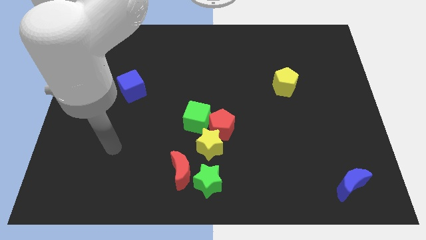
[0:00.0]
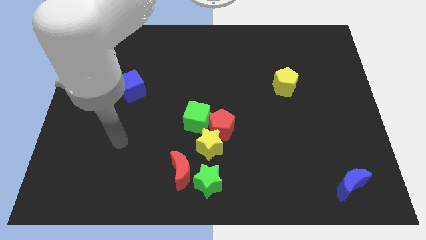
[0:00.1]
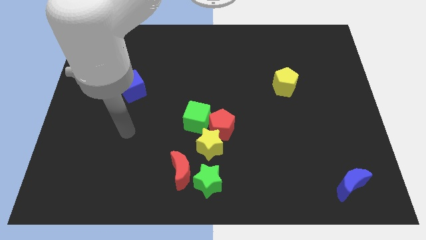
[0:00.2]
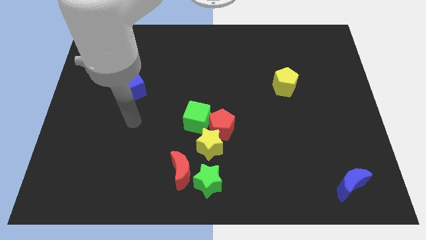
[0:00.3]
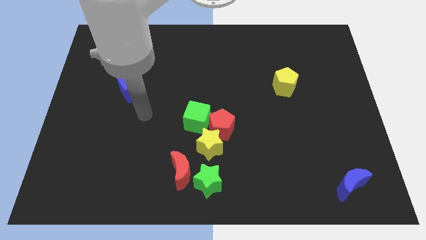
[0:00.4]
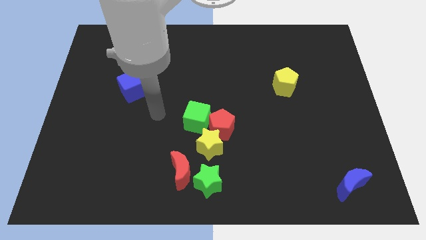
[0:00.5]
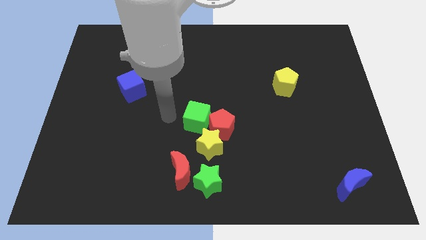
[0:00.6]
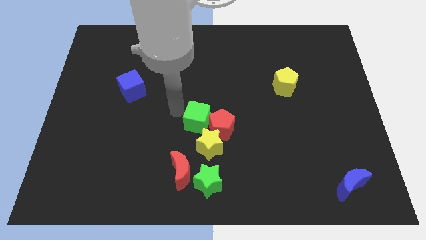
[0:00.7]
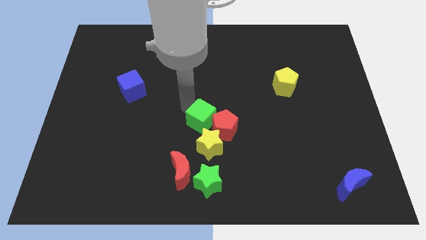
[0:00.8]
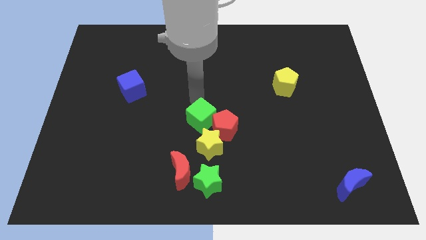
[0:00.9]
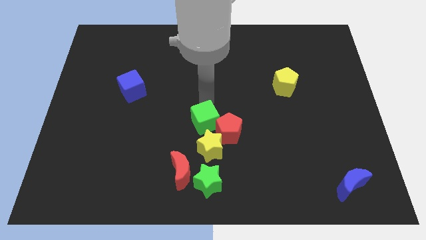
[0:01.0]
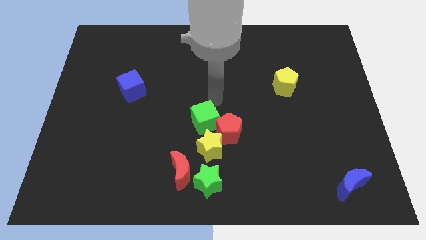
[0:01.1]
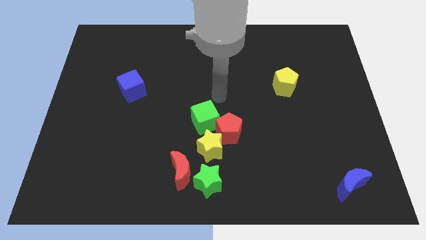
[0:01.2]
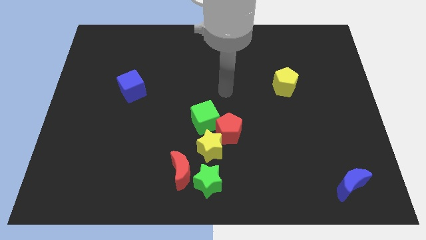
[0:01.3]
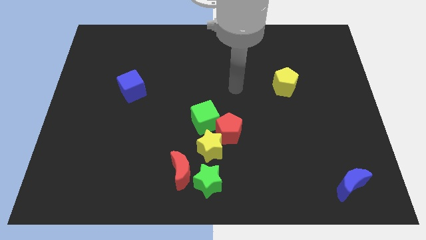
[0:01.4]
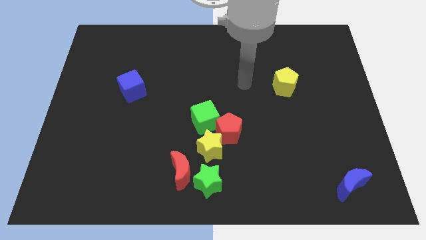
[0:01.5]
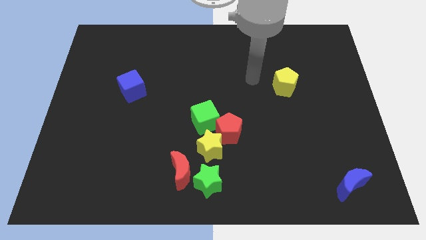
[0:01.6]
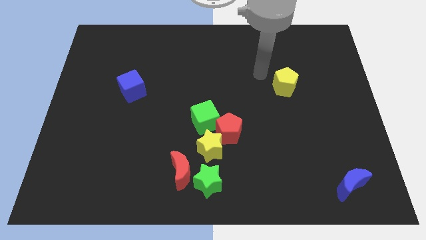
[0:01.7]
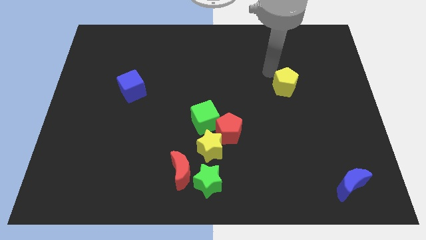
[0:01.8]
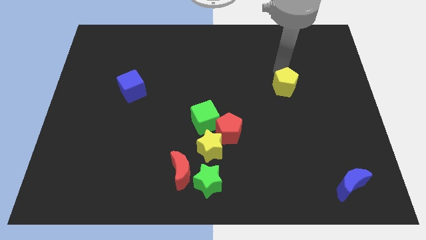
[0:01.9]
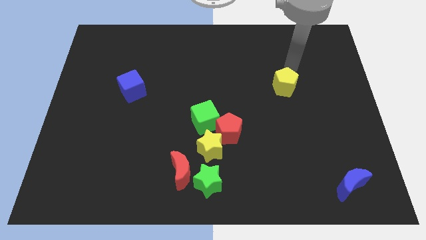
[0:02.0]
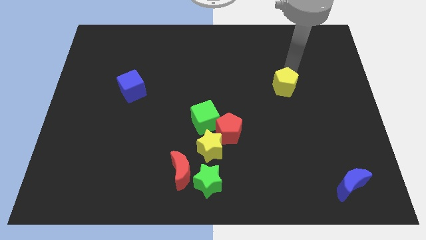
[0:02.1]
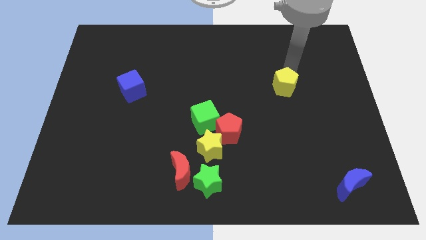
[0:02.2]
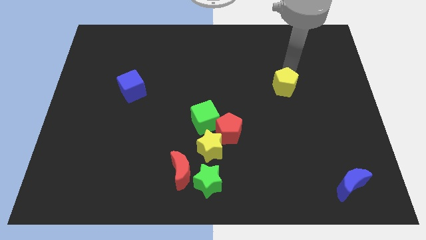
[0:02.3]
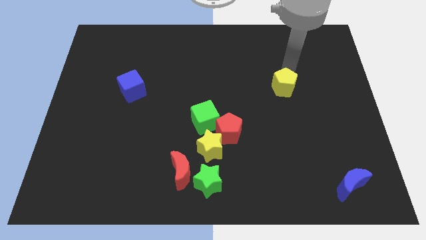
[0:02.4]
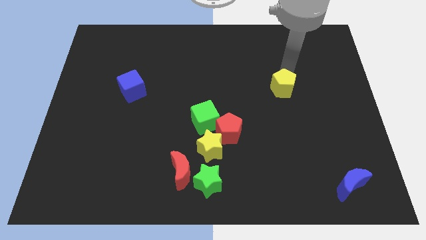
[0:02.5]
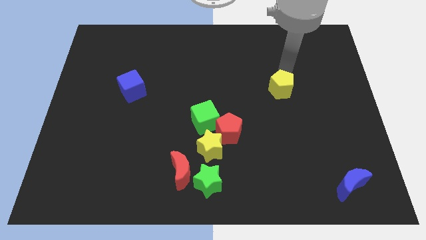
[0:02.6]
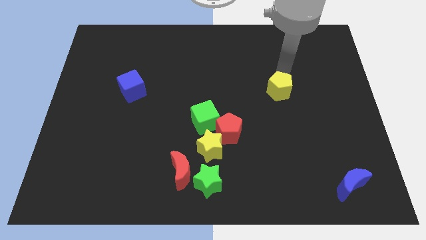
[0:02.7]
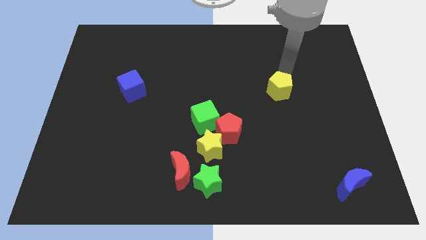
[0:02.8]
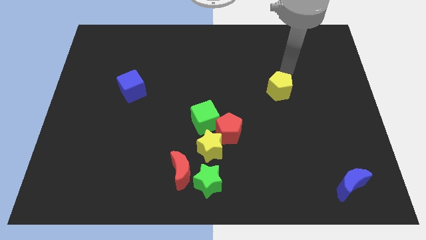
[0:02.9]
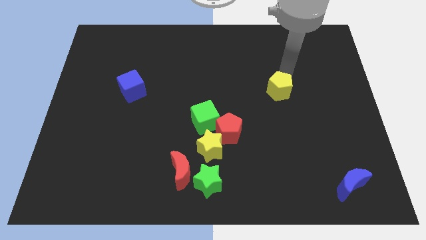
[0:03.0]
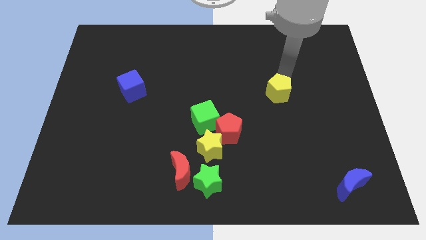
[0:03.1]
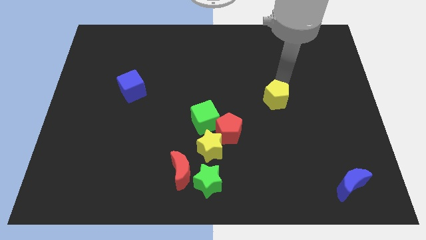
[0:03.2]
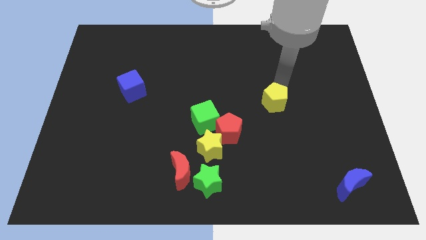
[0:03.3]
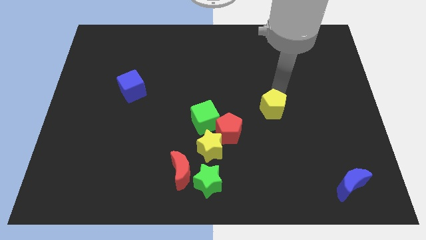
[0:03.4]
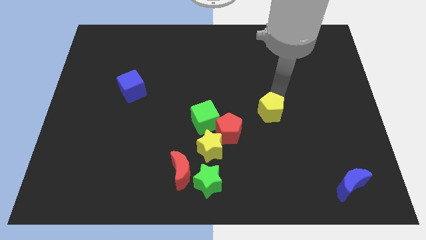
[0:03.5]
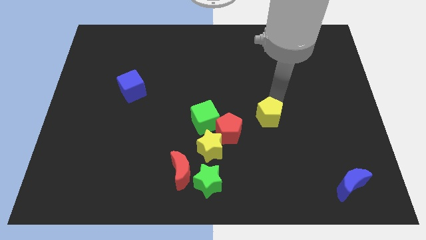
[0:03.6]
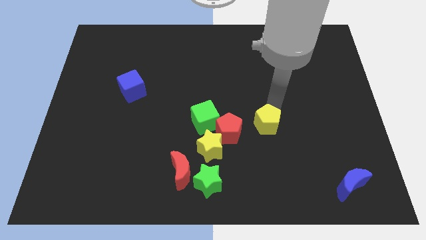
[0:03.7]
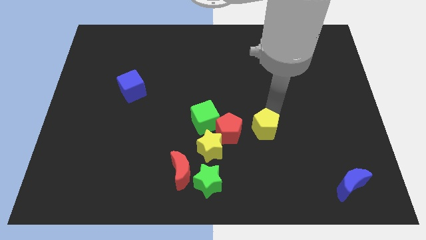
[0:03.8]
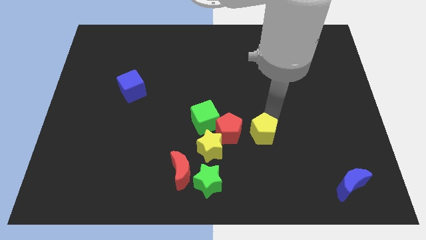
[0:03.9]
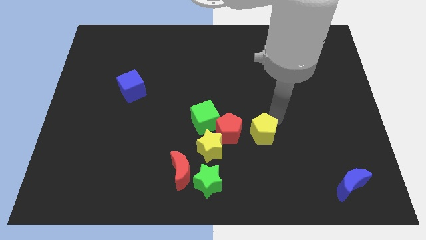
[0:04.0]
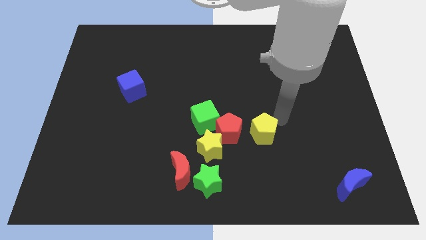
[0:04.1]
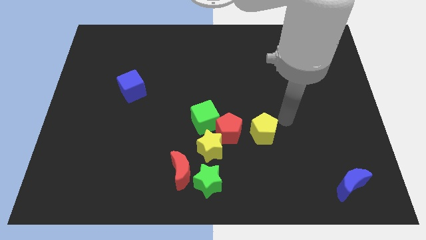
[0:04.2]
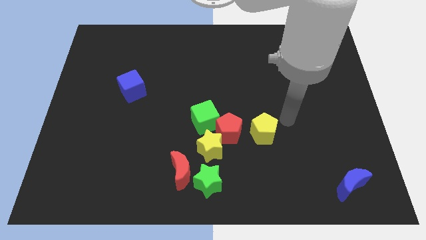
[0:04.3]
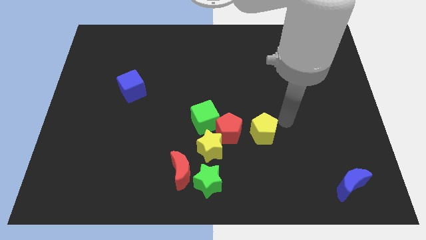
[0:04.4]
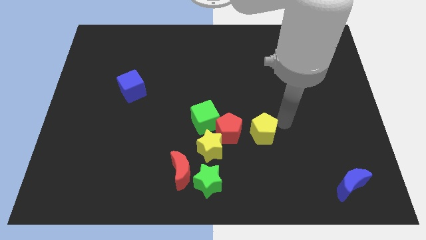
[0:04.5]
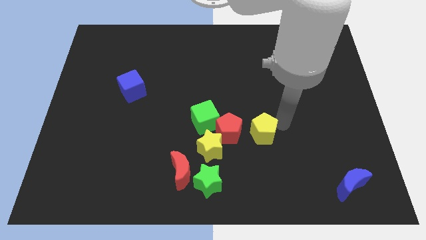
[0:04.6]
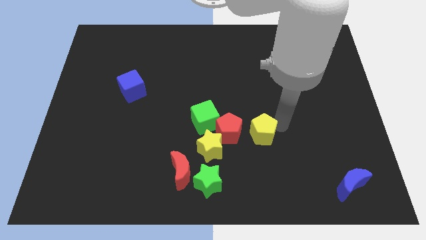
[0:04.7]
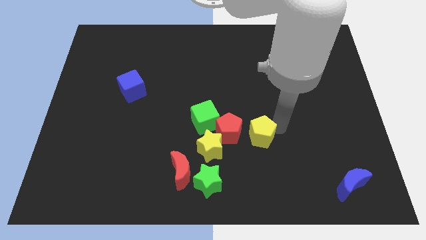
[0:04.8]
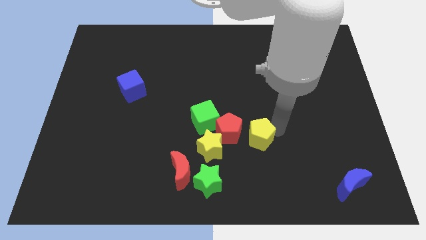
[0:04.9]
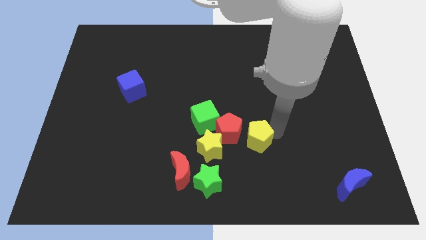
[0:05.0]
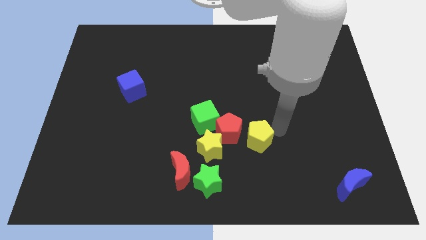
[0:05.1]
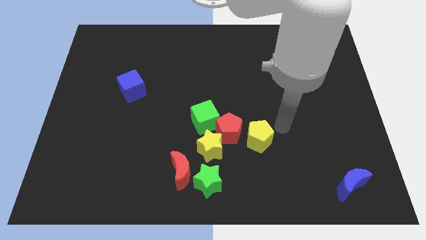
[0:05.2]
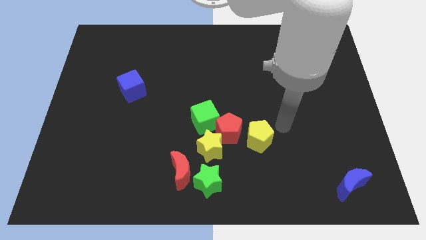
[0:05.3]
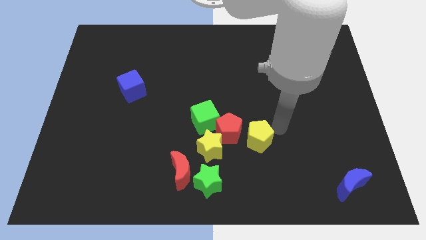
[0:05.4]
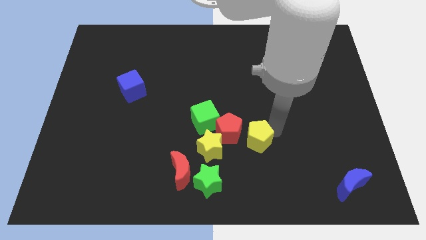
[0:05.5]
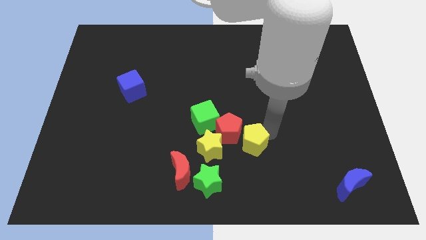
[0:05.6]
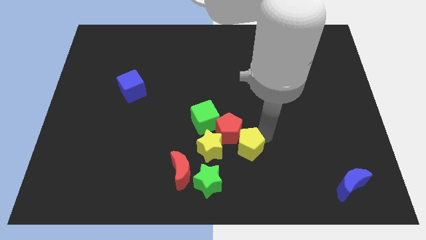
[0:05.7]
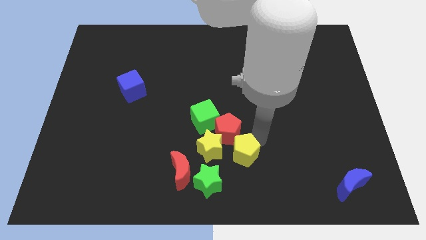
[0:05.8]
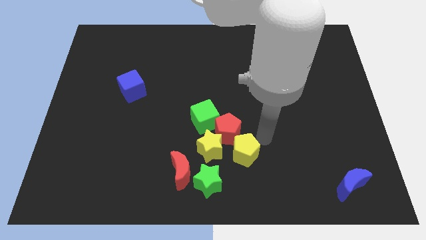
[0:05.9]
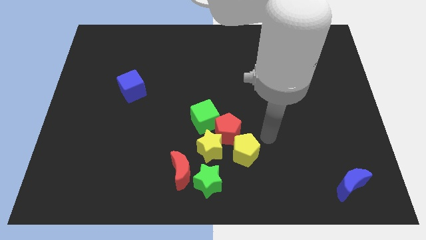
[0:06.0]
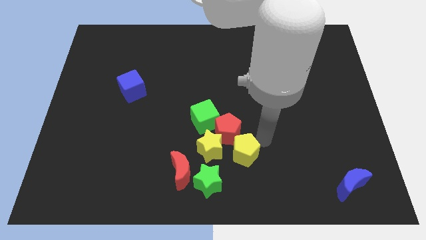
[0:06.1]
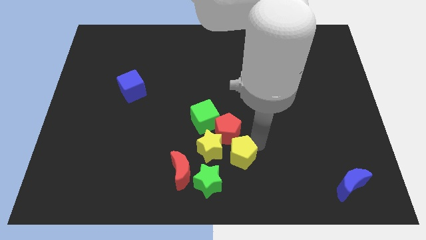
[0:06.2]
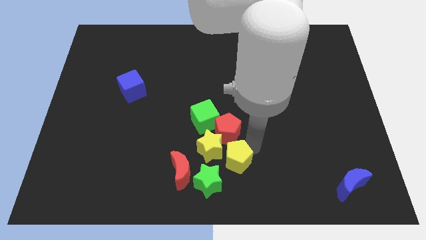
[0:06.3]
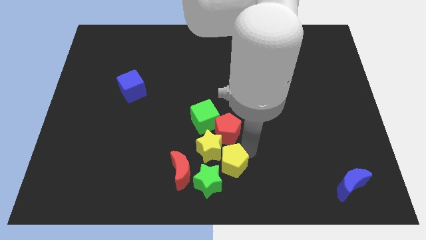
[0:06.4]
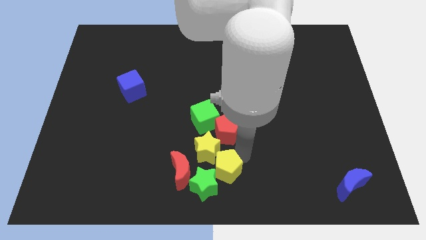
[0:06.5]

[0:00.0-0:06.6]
slide the yellow pentagon towards the green star
